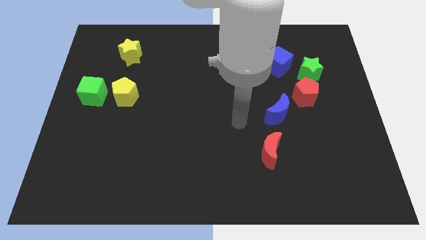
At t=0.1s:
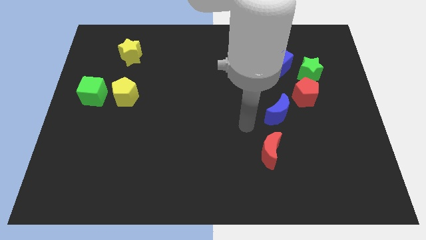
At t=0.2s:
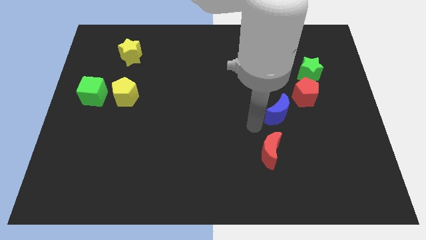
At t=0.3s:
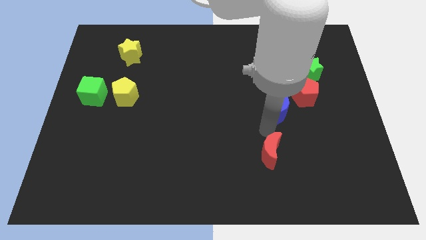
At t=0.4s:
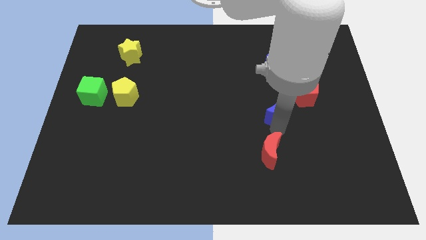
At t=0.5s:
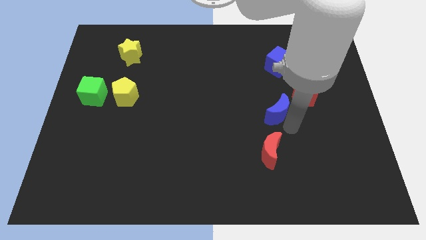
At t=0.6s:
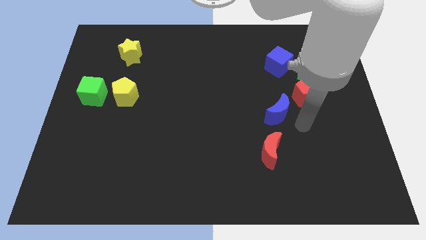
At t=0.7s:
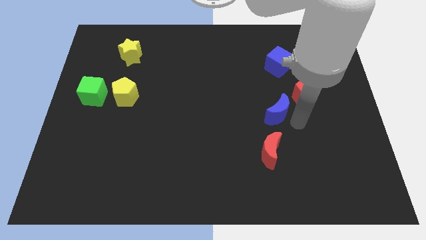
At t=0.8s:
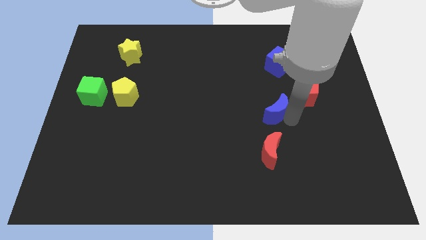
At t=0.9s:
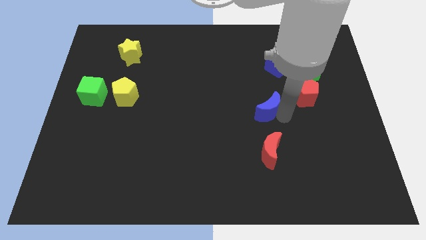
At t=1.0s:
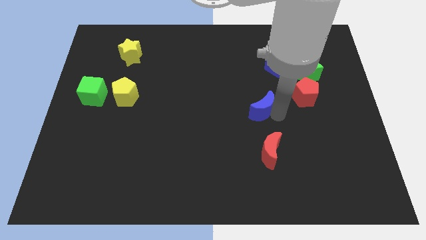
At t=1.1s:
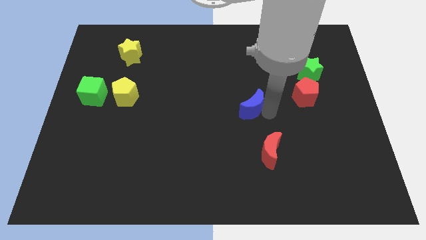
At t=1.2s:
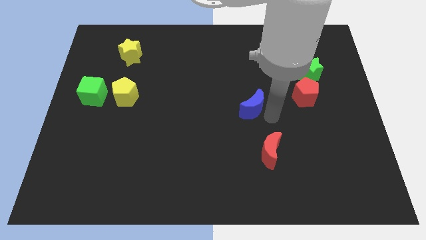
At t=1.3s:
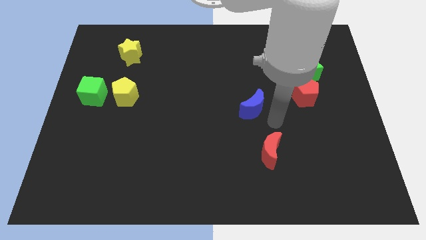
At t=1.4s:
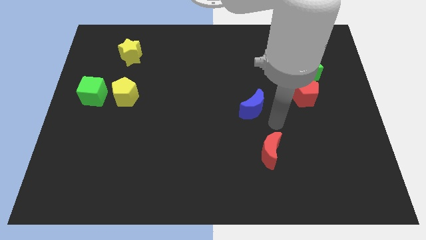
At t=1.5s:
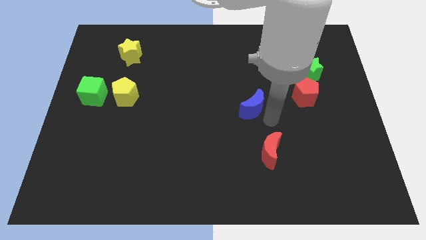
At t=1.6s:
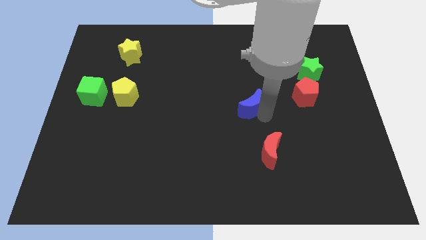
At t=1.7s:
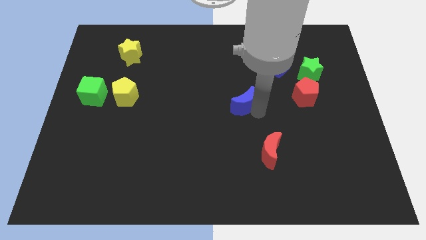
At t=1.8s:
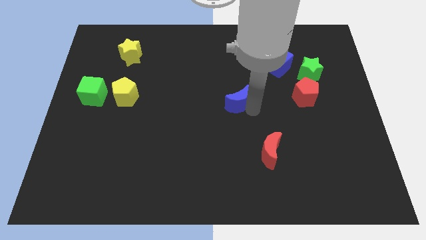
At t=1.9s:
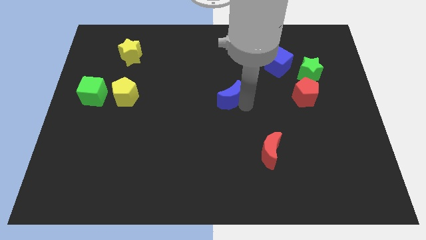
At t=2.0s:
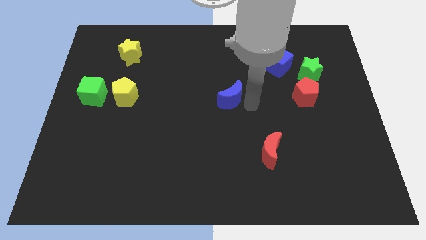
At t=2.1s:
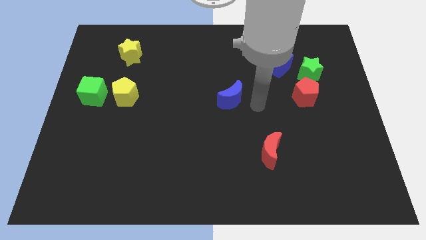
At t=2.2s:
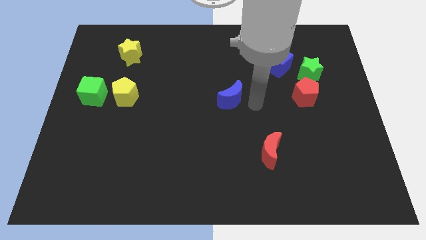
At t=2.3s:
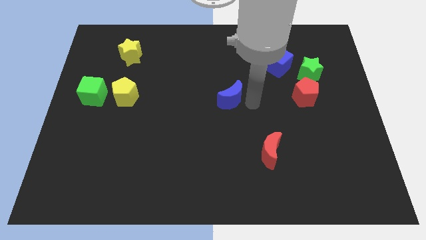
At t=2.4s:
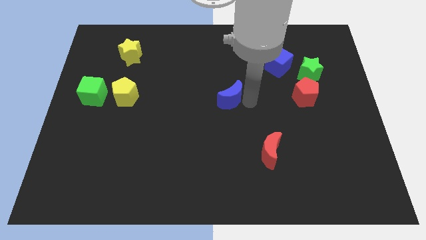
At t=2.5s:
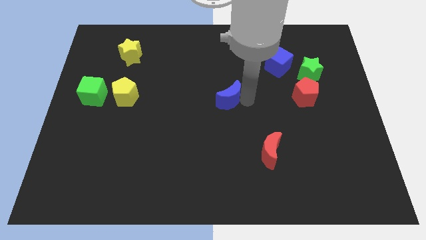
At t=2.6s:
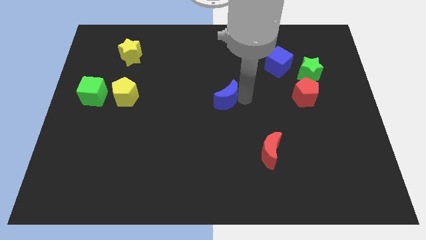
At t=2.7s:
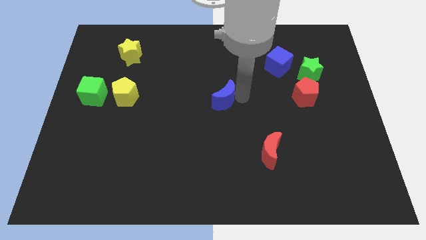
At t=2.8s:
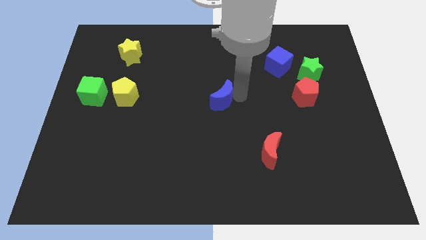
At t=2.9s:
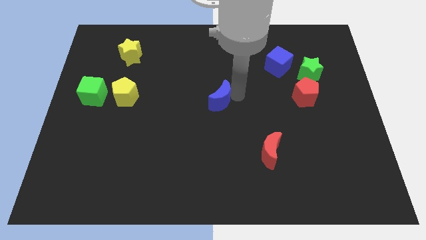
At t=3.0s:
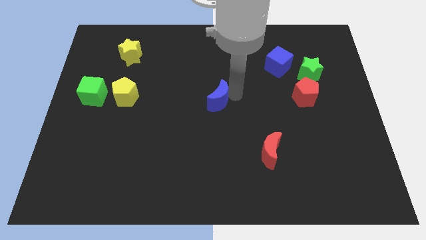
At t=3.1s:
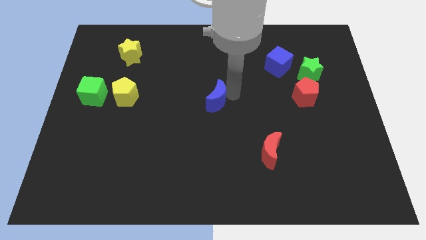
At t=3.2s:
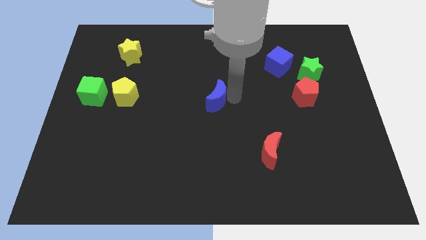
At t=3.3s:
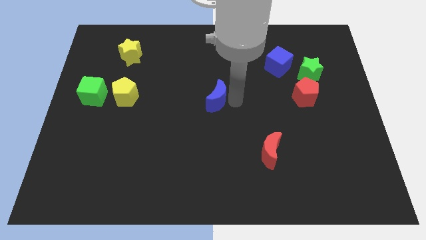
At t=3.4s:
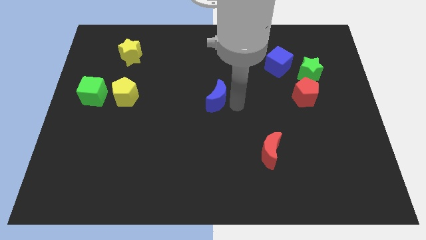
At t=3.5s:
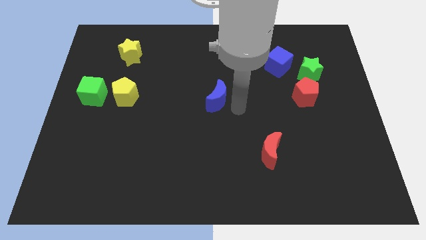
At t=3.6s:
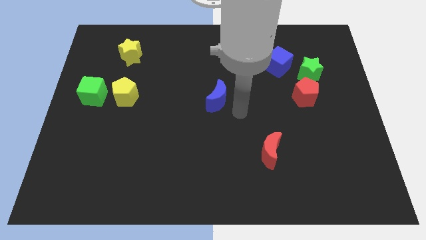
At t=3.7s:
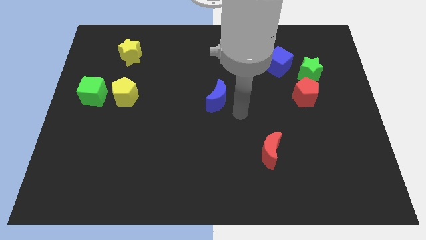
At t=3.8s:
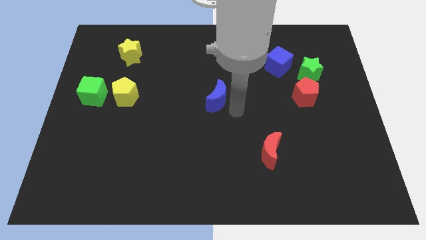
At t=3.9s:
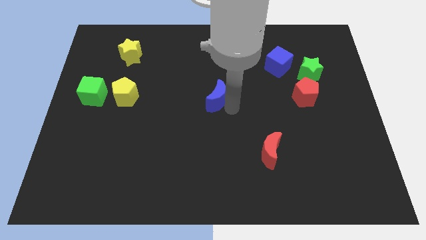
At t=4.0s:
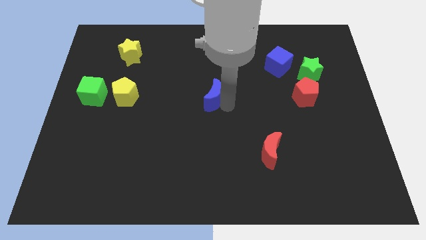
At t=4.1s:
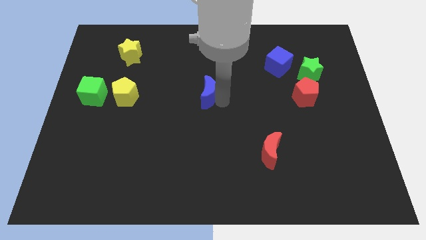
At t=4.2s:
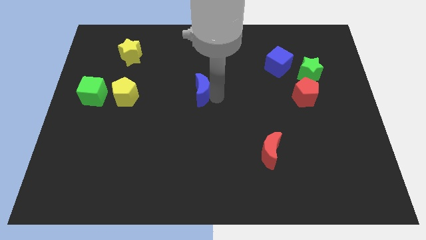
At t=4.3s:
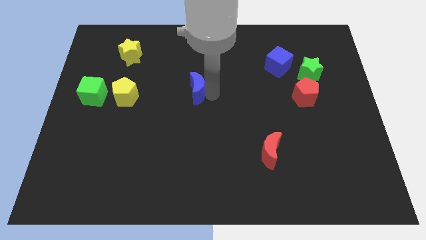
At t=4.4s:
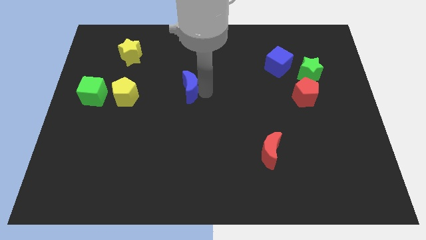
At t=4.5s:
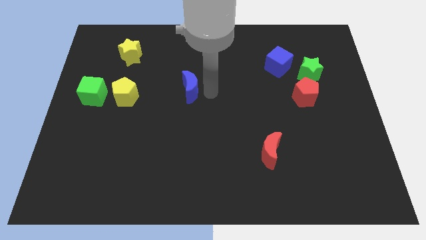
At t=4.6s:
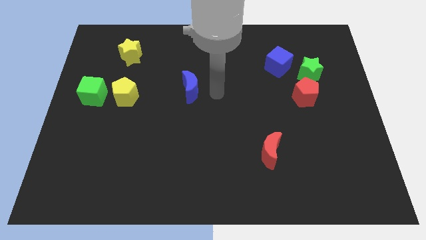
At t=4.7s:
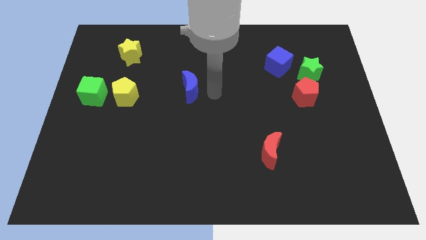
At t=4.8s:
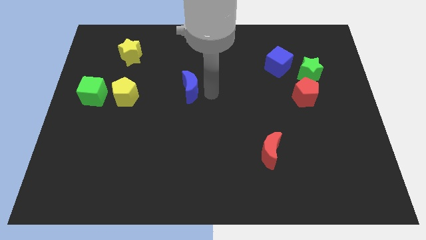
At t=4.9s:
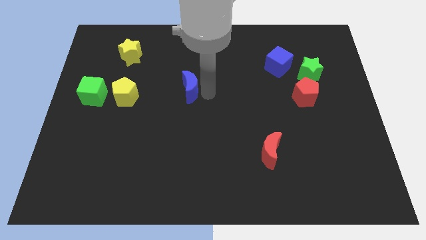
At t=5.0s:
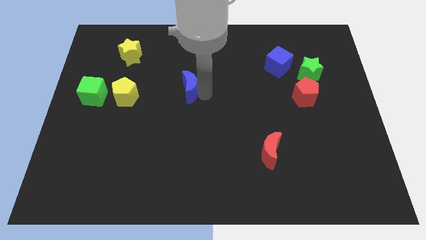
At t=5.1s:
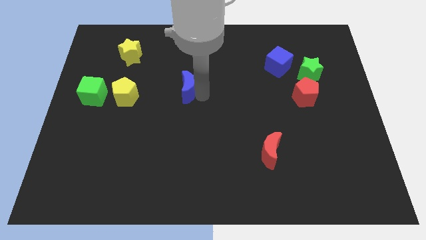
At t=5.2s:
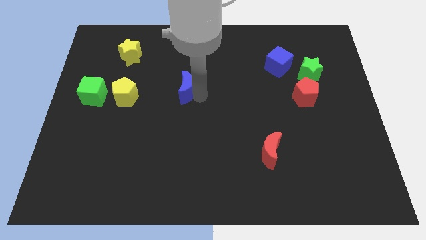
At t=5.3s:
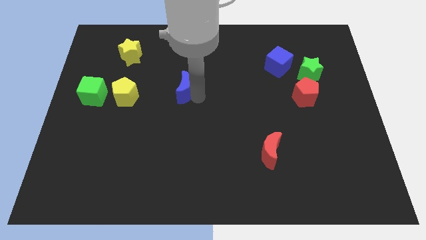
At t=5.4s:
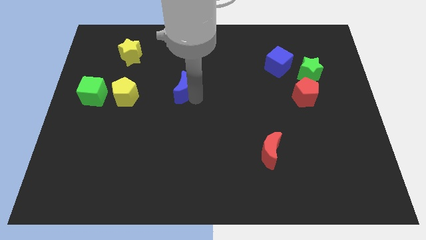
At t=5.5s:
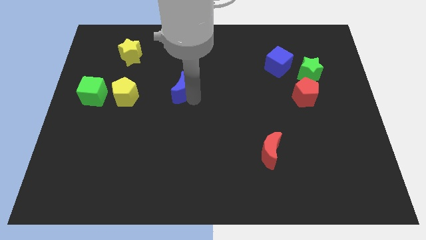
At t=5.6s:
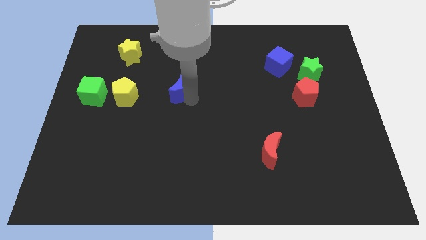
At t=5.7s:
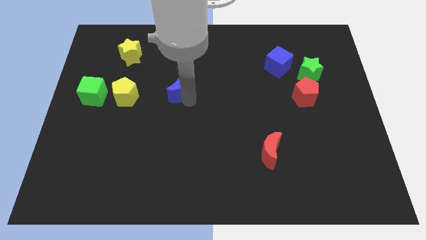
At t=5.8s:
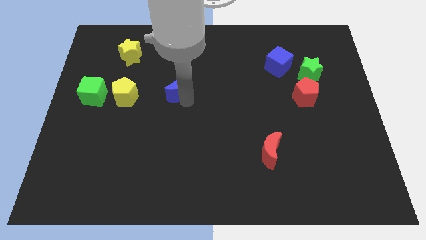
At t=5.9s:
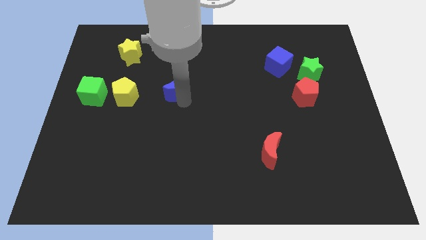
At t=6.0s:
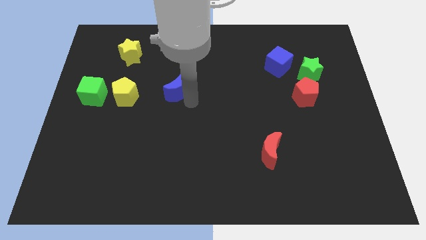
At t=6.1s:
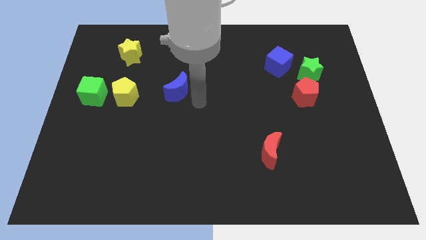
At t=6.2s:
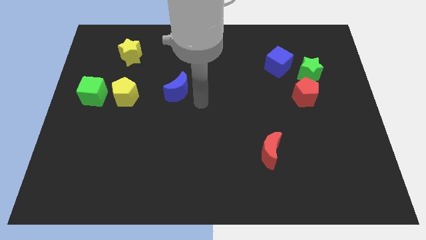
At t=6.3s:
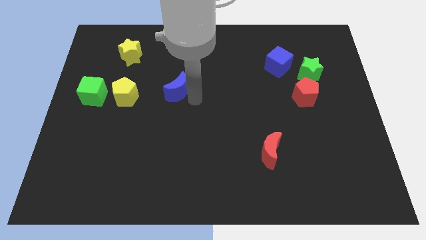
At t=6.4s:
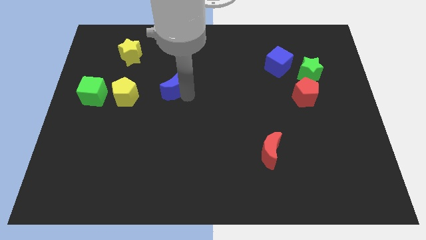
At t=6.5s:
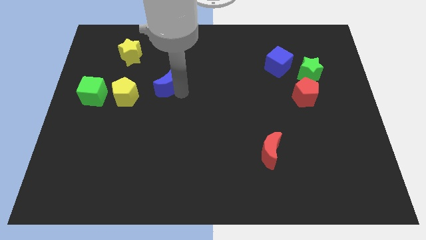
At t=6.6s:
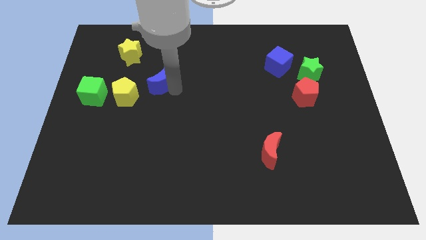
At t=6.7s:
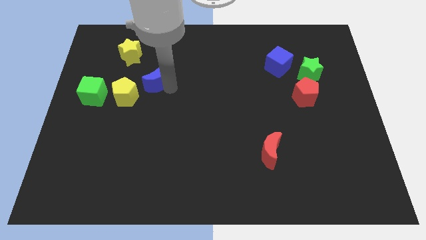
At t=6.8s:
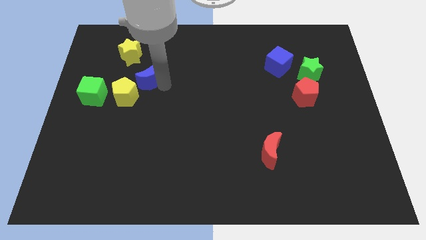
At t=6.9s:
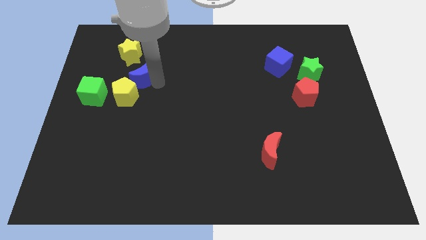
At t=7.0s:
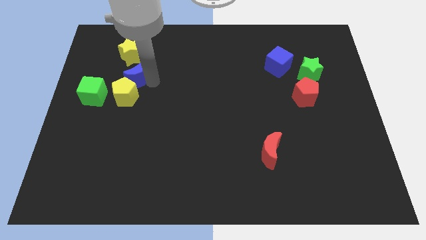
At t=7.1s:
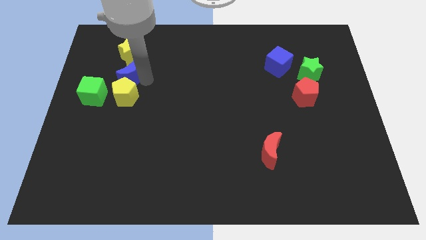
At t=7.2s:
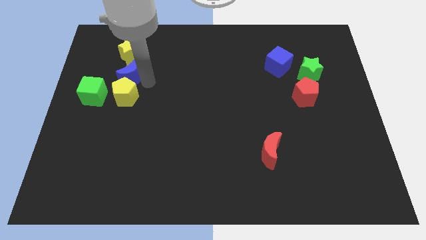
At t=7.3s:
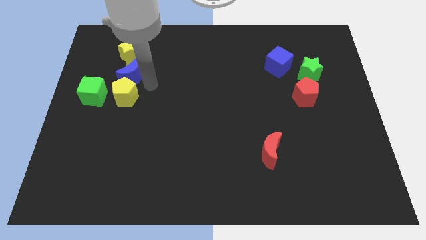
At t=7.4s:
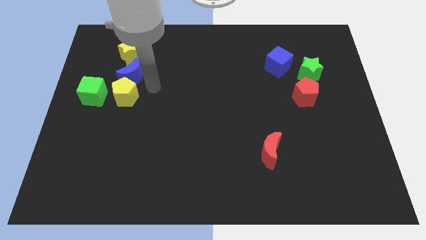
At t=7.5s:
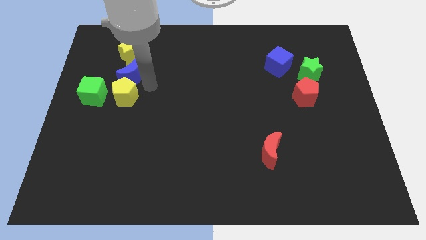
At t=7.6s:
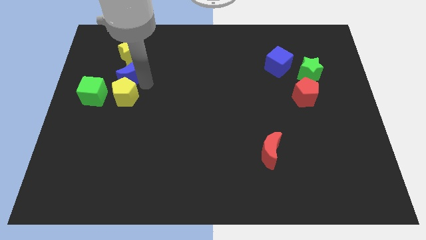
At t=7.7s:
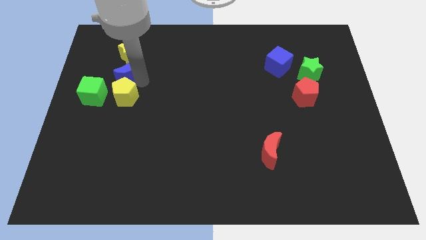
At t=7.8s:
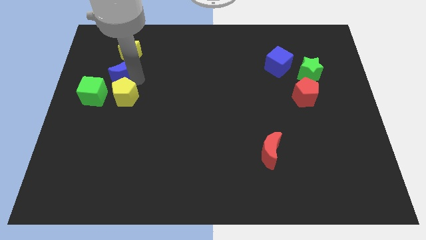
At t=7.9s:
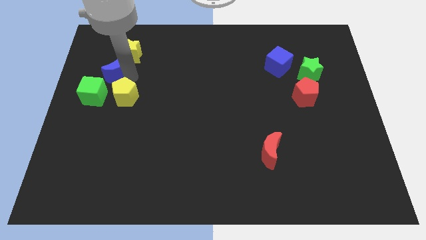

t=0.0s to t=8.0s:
slide the blue moon above the green cube
